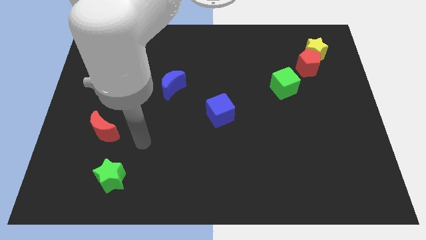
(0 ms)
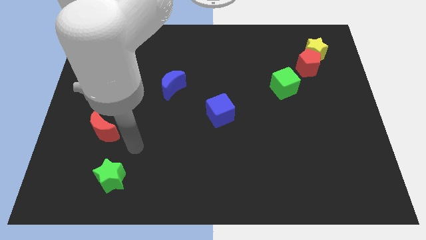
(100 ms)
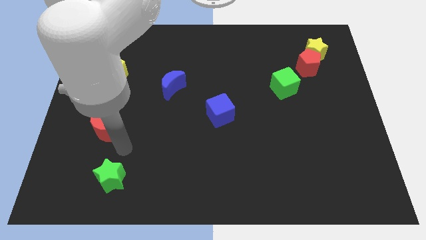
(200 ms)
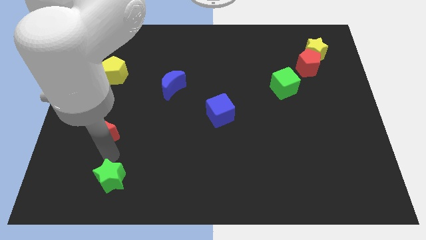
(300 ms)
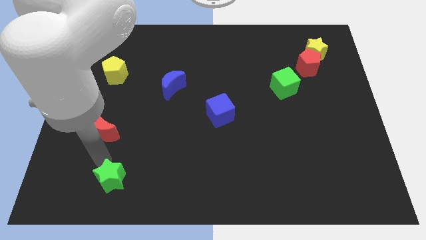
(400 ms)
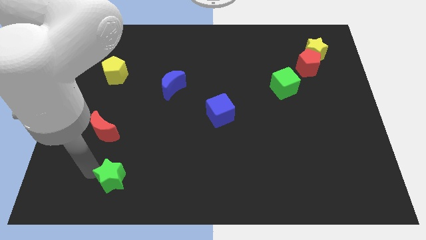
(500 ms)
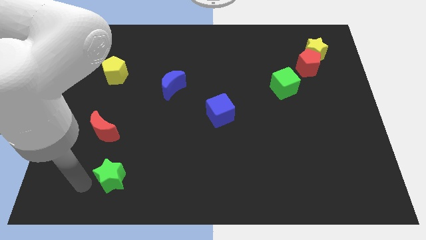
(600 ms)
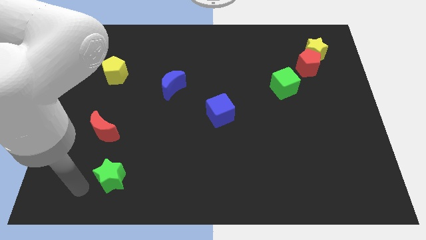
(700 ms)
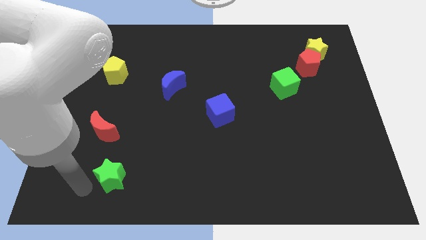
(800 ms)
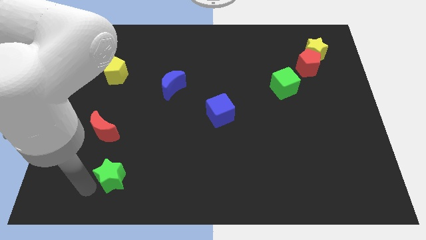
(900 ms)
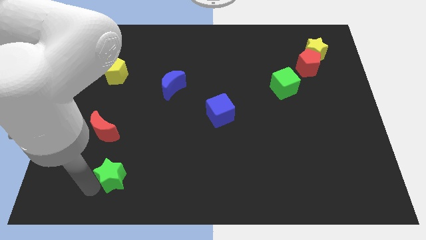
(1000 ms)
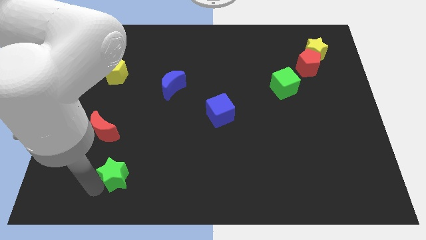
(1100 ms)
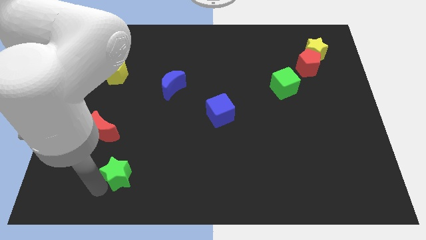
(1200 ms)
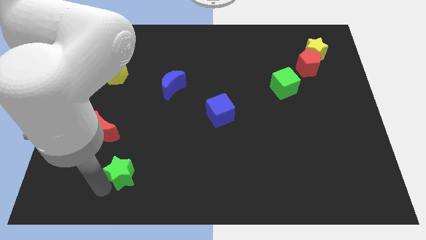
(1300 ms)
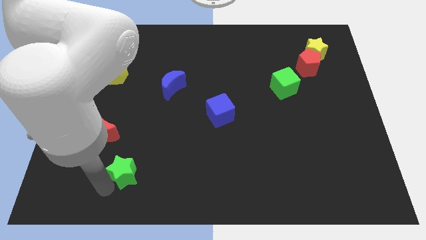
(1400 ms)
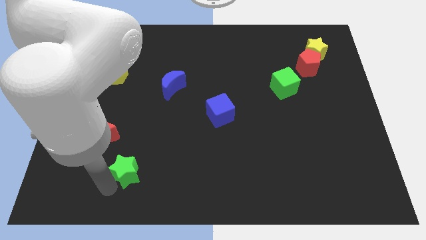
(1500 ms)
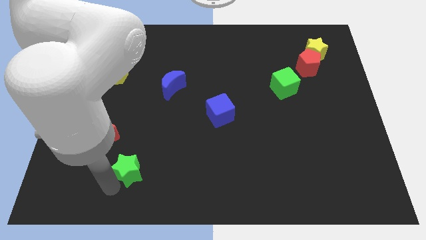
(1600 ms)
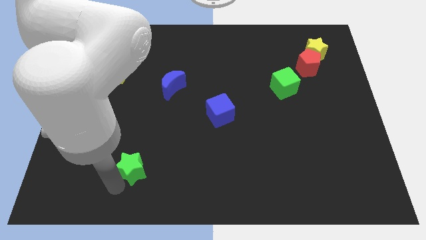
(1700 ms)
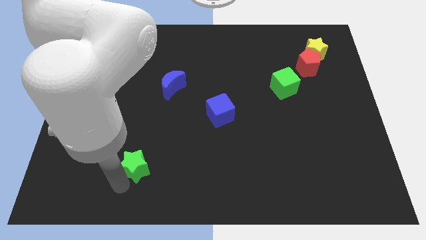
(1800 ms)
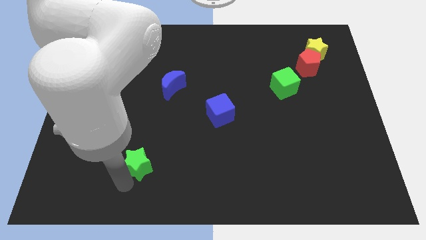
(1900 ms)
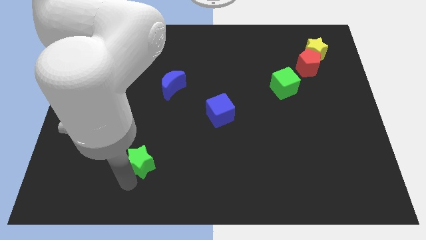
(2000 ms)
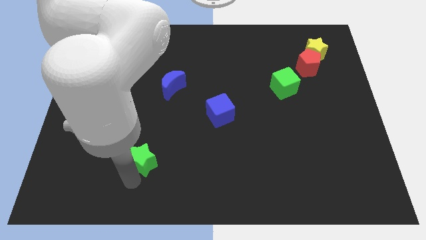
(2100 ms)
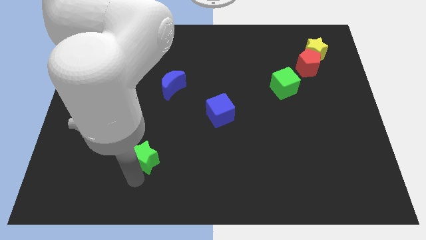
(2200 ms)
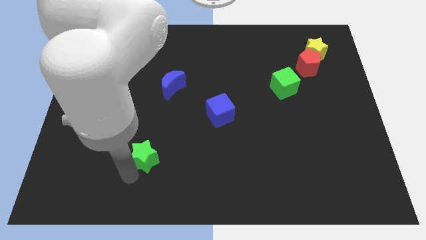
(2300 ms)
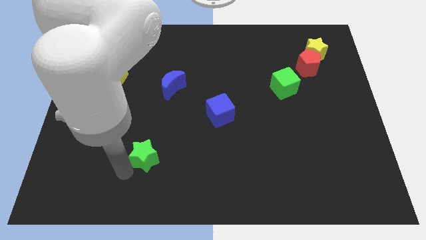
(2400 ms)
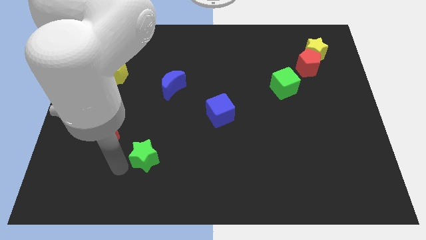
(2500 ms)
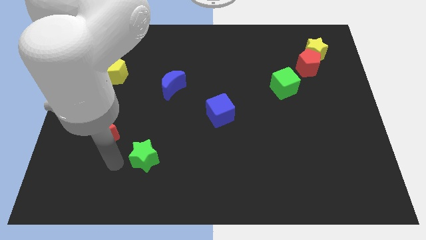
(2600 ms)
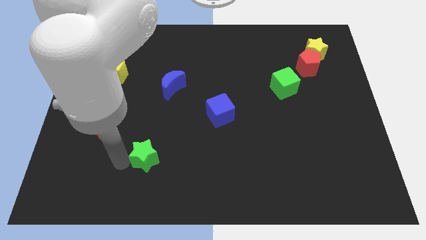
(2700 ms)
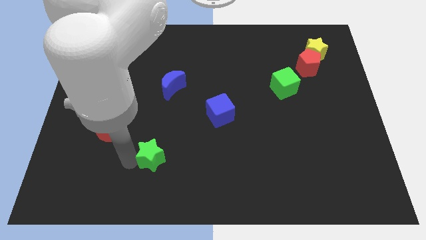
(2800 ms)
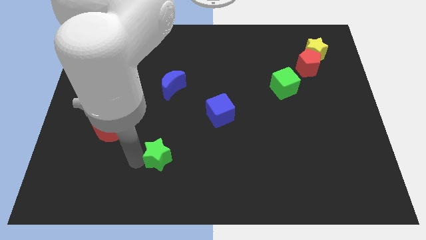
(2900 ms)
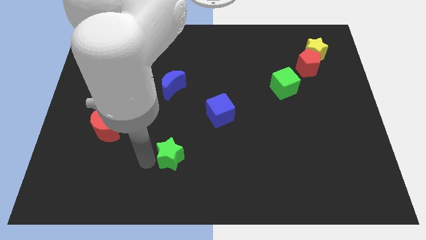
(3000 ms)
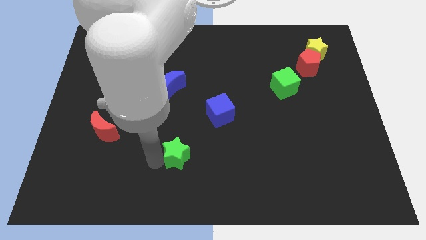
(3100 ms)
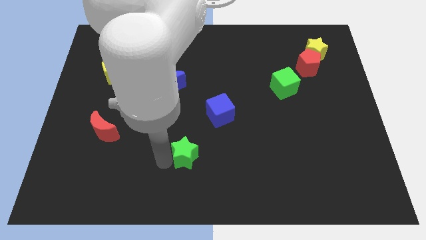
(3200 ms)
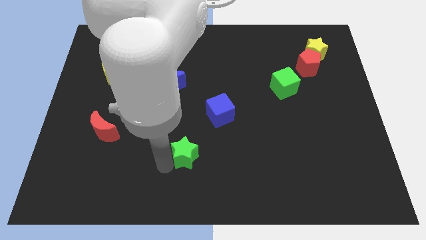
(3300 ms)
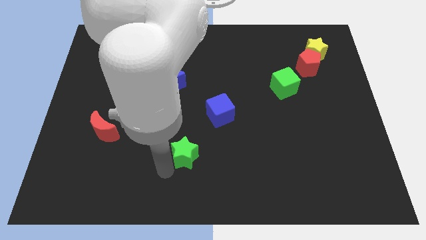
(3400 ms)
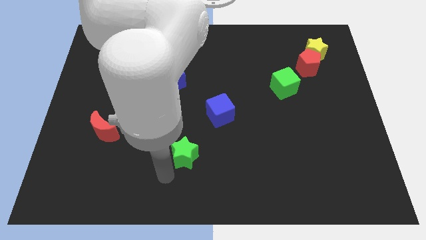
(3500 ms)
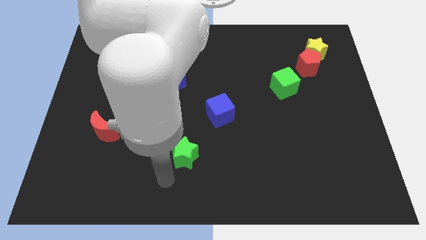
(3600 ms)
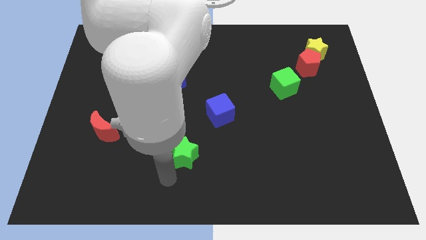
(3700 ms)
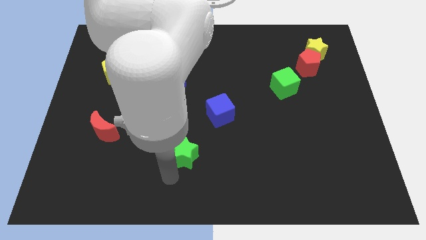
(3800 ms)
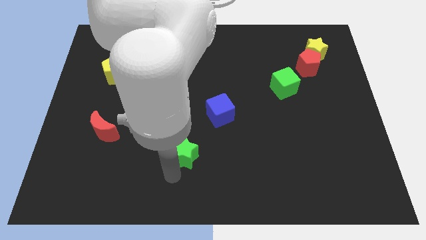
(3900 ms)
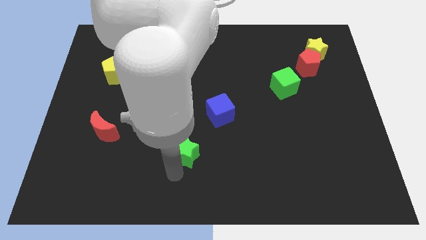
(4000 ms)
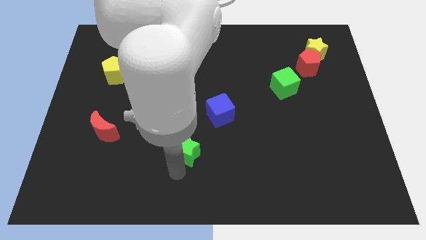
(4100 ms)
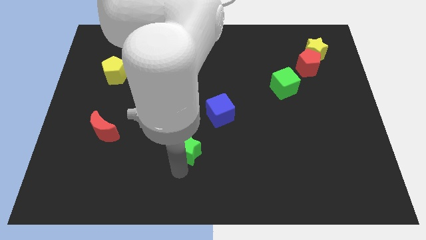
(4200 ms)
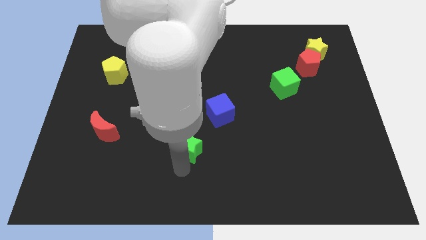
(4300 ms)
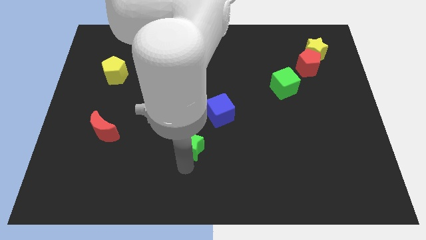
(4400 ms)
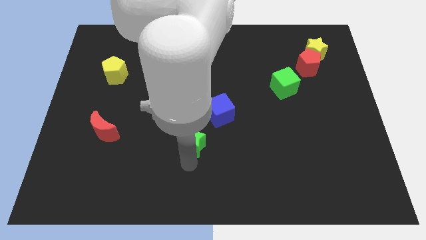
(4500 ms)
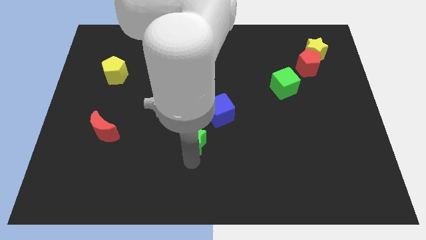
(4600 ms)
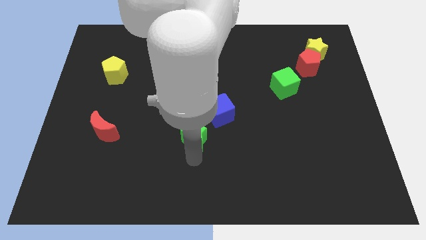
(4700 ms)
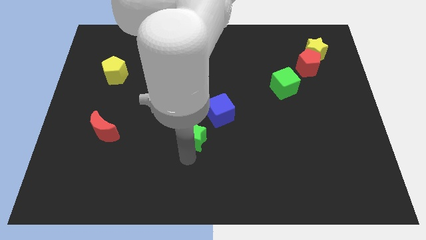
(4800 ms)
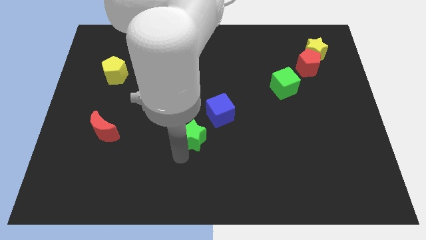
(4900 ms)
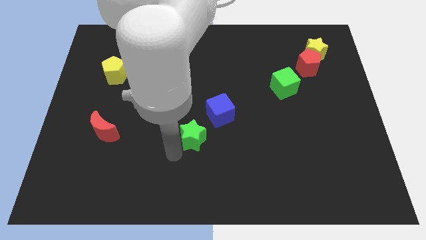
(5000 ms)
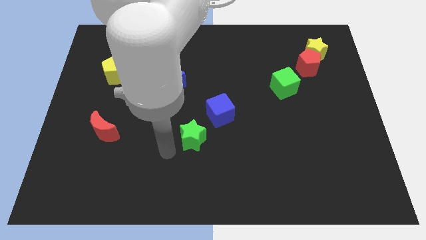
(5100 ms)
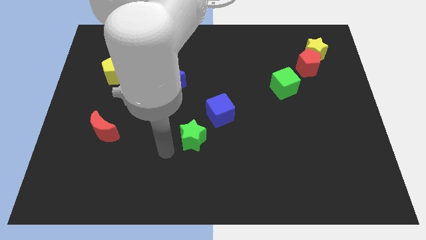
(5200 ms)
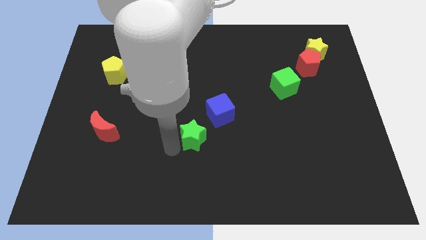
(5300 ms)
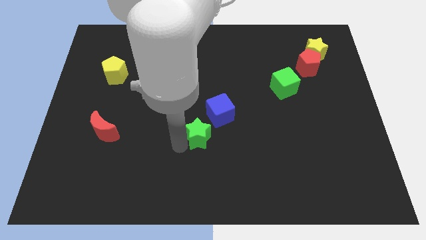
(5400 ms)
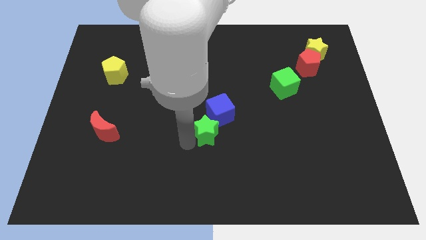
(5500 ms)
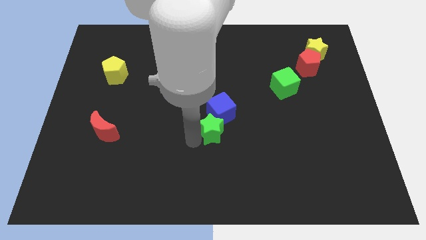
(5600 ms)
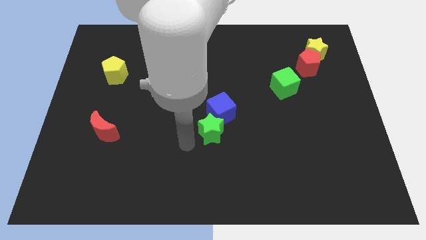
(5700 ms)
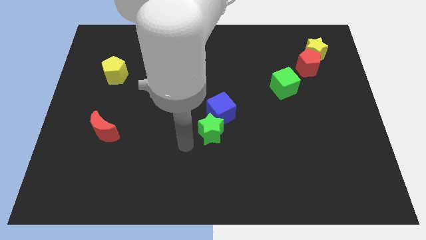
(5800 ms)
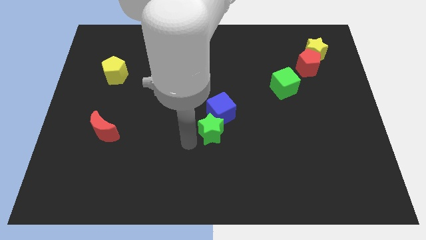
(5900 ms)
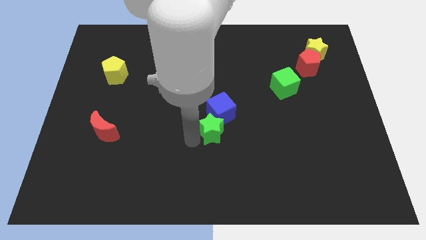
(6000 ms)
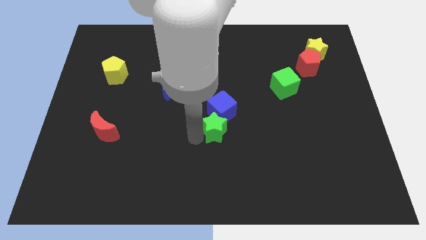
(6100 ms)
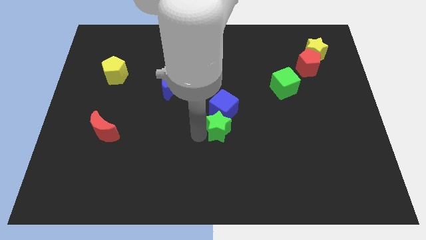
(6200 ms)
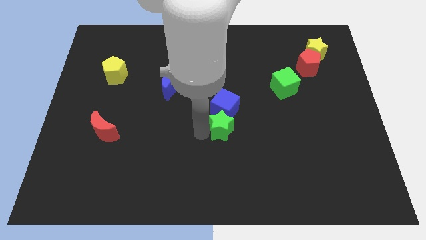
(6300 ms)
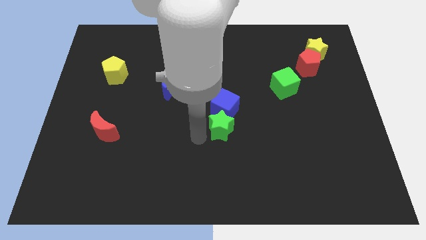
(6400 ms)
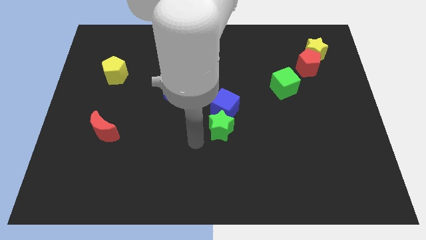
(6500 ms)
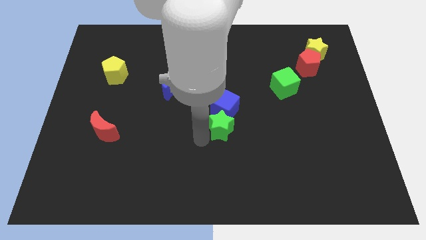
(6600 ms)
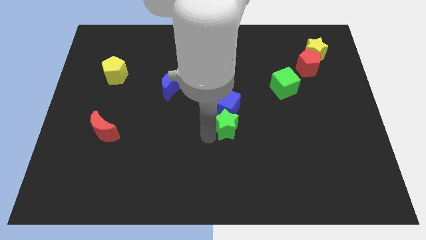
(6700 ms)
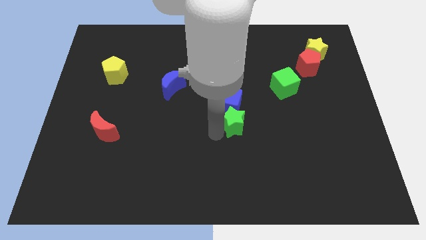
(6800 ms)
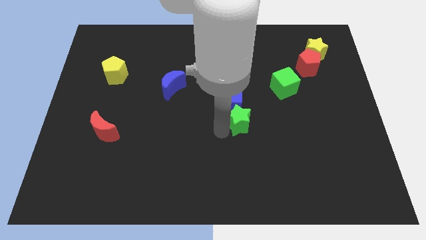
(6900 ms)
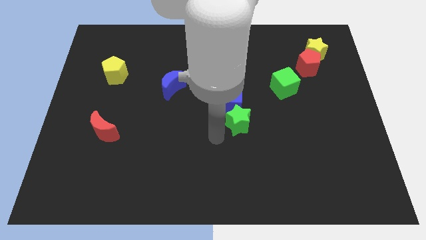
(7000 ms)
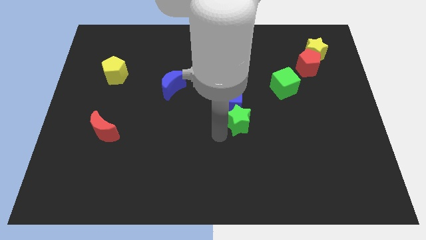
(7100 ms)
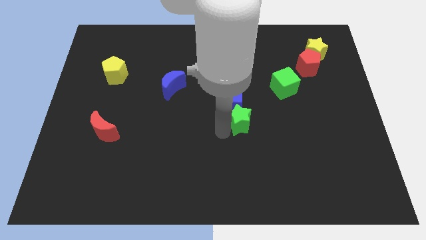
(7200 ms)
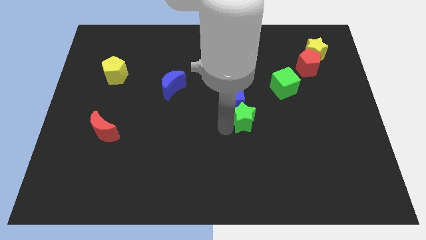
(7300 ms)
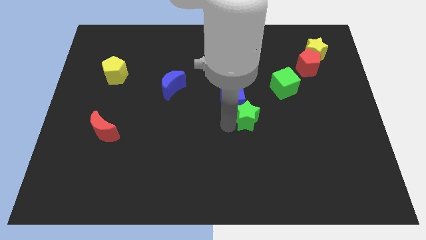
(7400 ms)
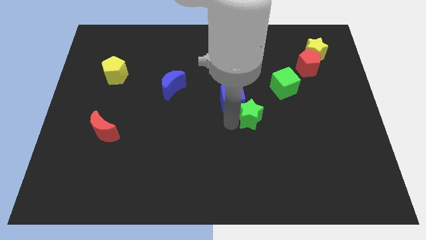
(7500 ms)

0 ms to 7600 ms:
push the green star just right of the blue cube
